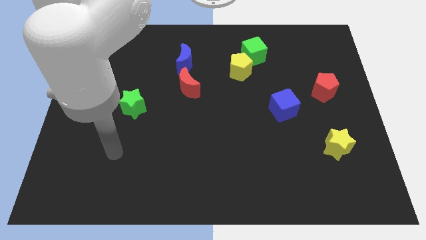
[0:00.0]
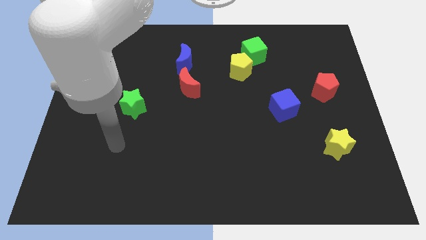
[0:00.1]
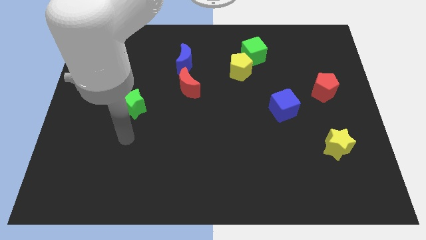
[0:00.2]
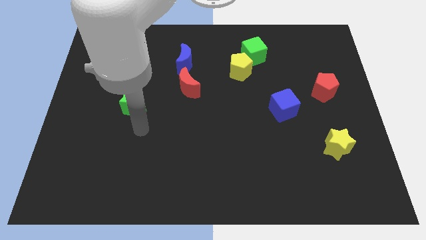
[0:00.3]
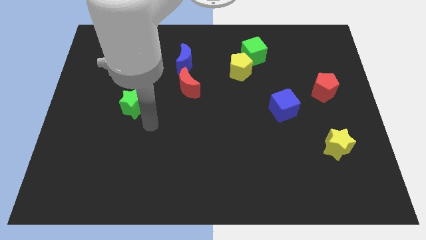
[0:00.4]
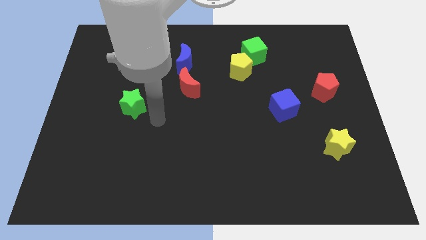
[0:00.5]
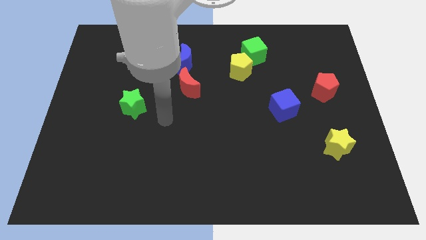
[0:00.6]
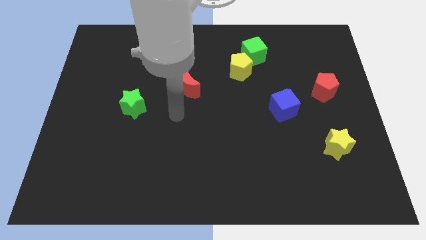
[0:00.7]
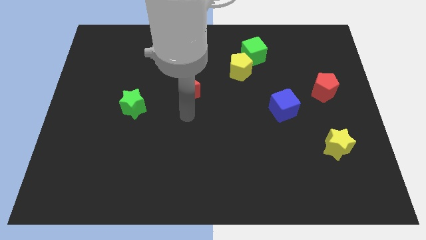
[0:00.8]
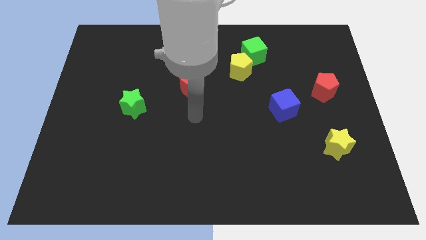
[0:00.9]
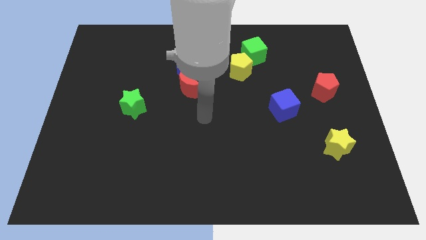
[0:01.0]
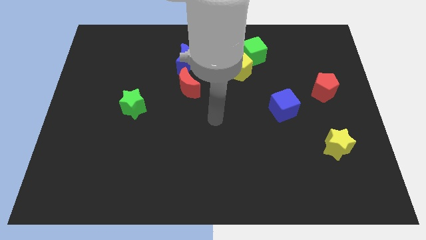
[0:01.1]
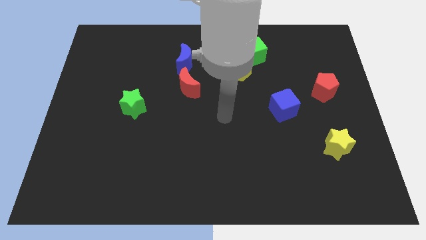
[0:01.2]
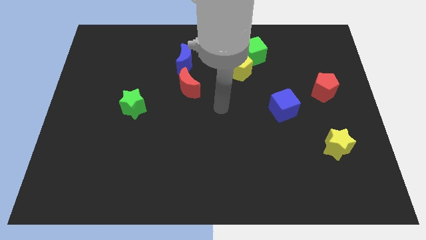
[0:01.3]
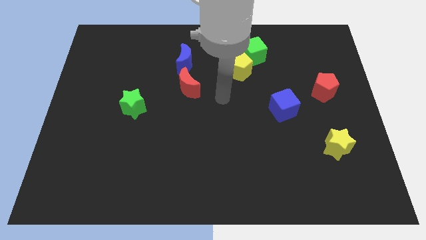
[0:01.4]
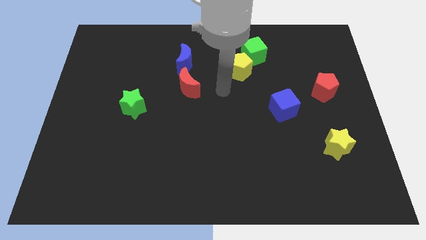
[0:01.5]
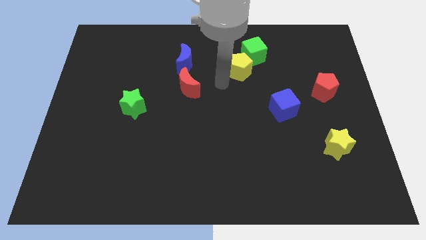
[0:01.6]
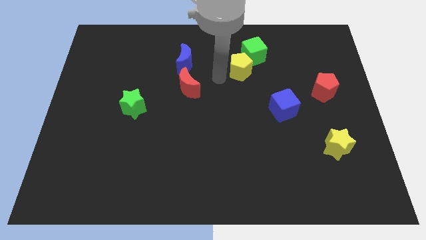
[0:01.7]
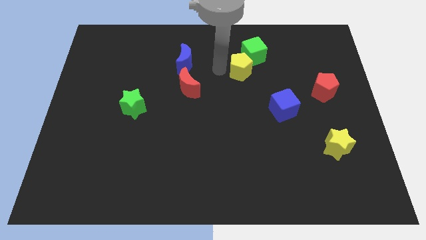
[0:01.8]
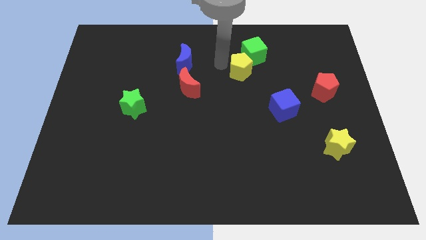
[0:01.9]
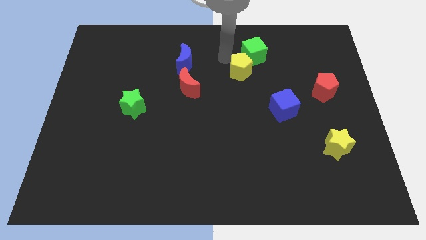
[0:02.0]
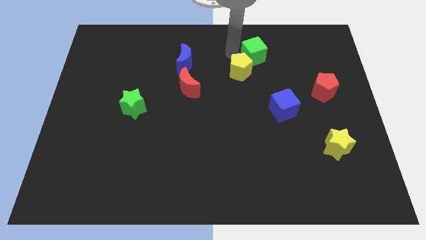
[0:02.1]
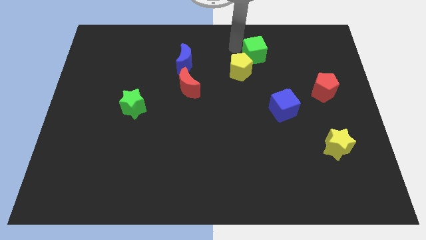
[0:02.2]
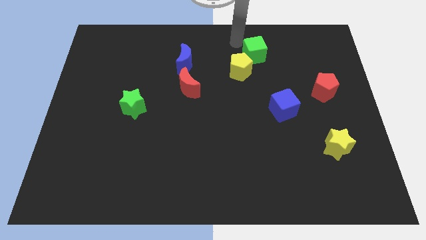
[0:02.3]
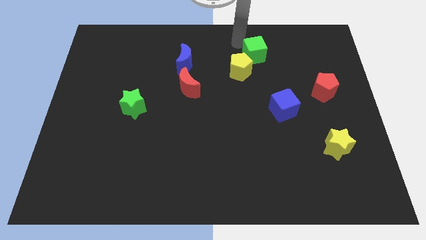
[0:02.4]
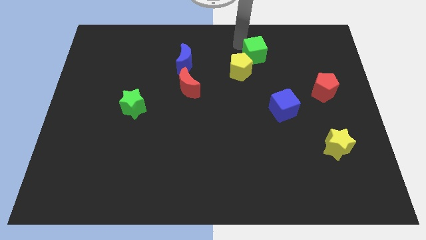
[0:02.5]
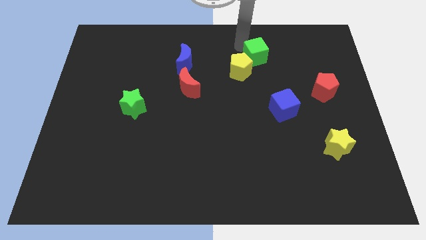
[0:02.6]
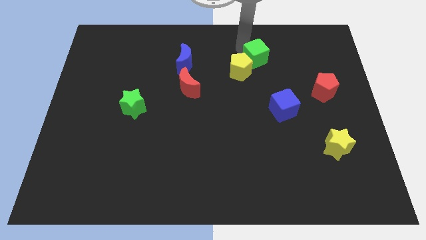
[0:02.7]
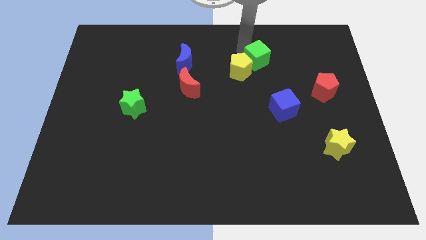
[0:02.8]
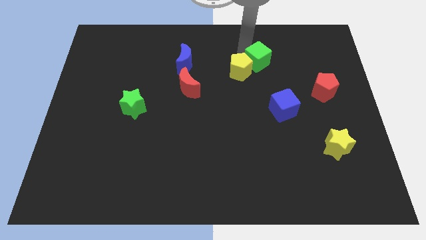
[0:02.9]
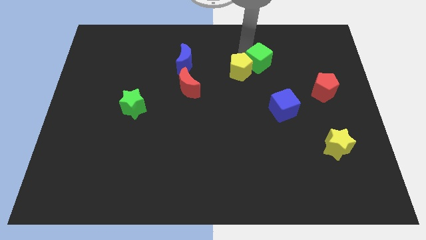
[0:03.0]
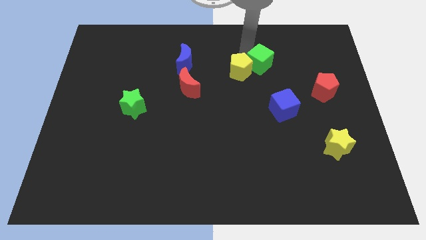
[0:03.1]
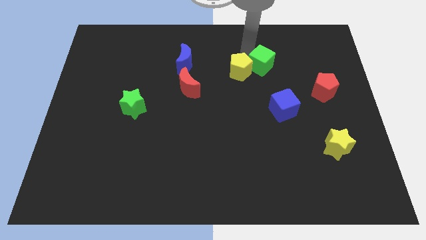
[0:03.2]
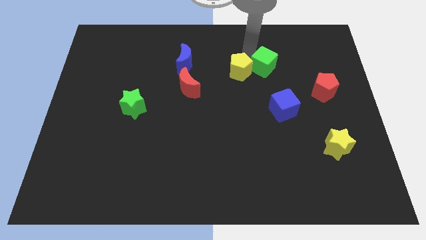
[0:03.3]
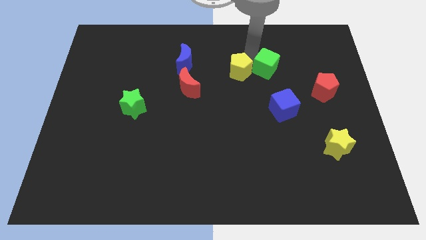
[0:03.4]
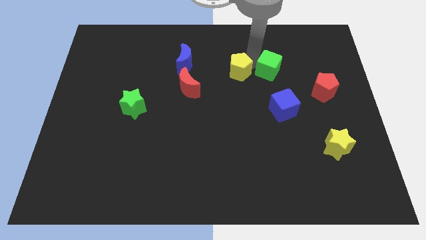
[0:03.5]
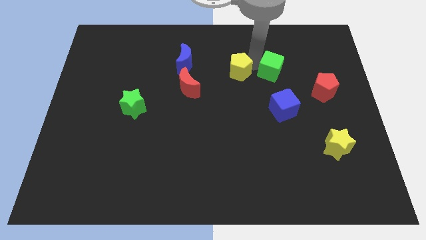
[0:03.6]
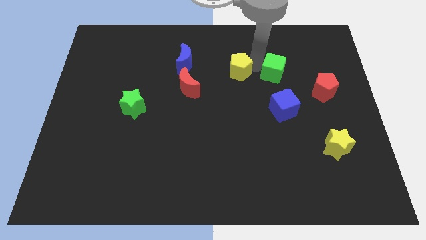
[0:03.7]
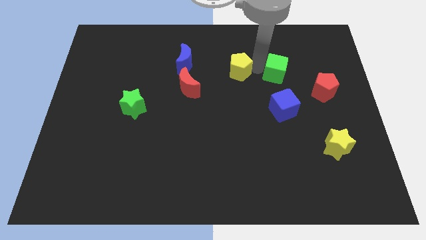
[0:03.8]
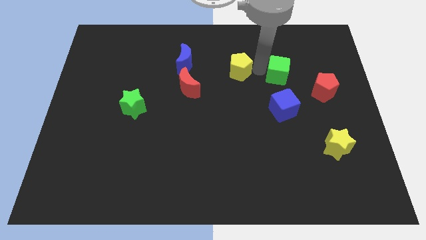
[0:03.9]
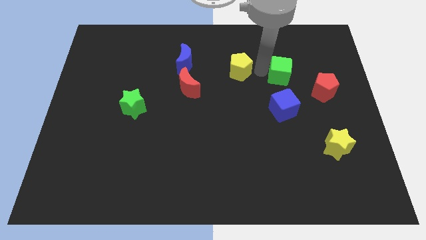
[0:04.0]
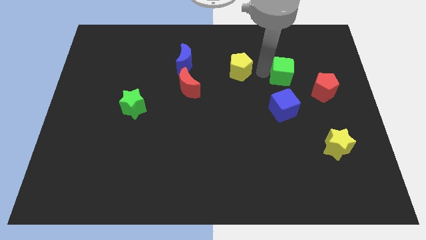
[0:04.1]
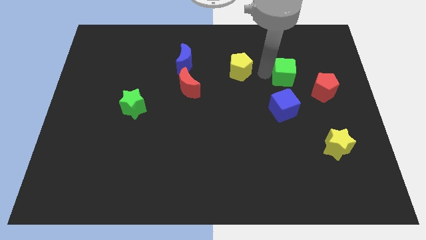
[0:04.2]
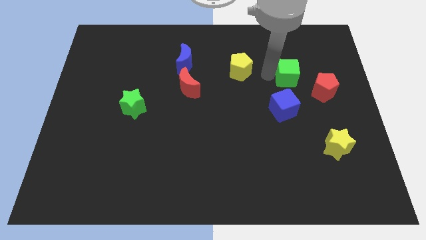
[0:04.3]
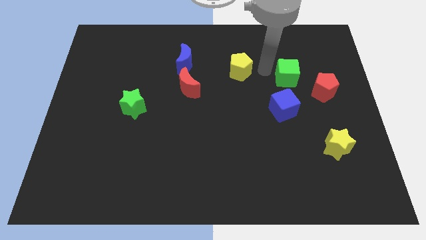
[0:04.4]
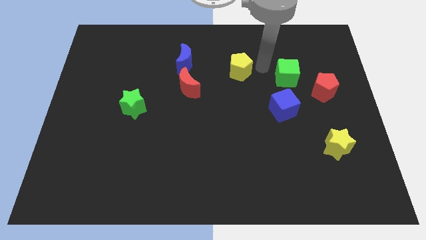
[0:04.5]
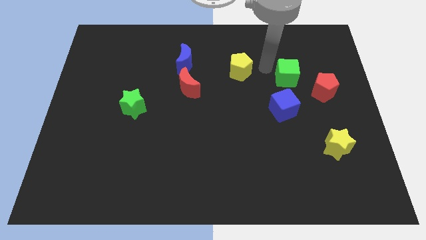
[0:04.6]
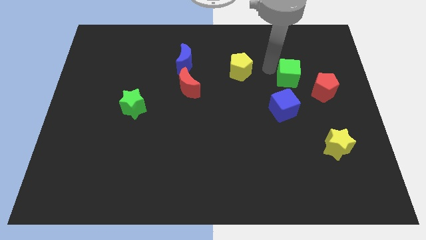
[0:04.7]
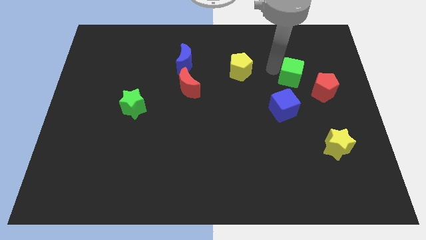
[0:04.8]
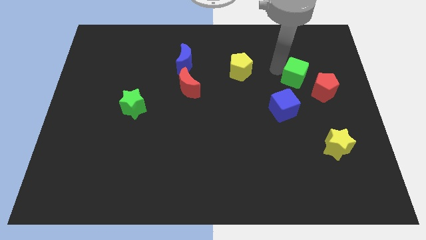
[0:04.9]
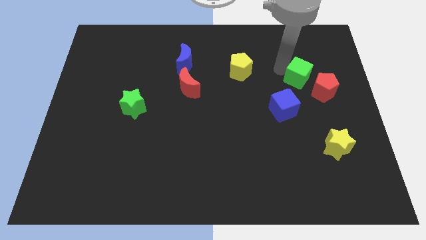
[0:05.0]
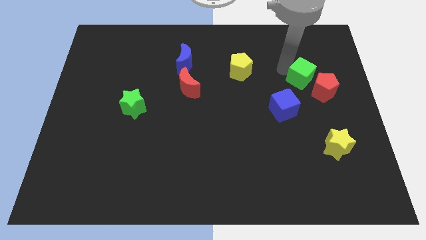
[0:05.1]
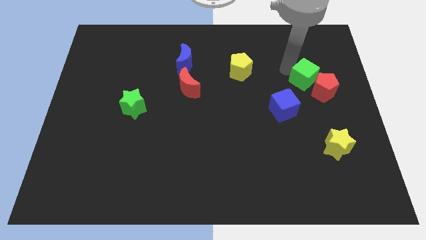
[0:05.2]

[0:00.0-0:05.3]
move the green cube close to the red pentagon

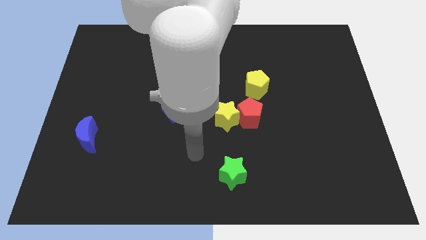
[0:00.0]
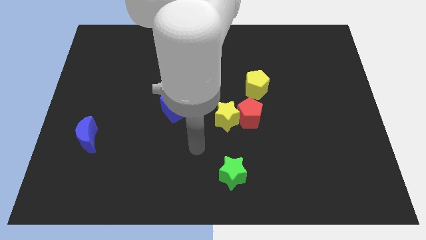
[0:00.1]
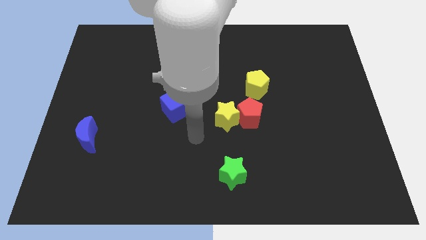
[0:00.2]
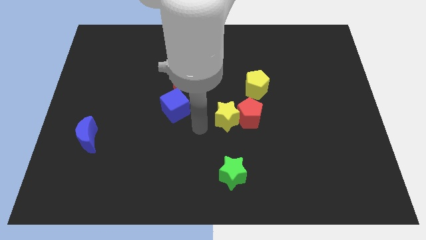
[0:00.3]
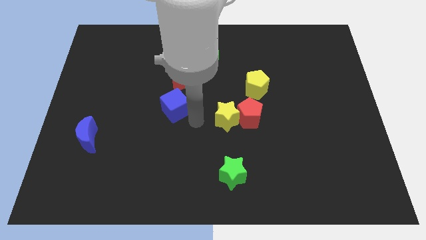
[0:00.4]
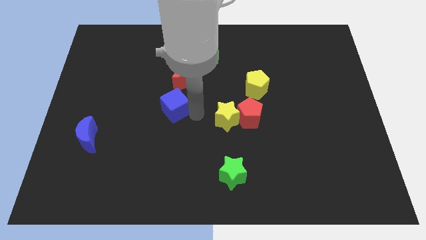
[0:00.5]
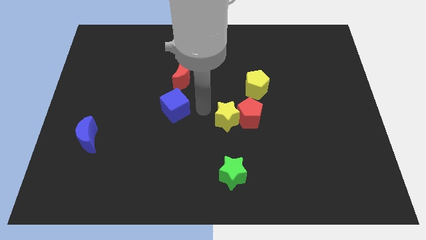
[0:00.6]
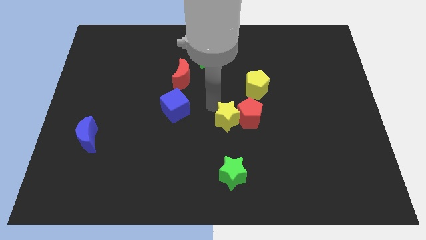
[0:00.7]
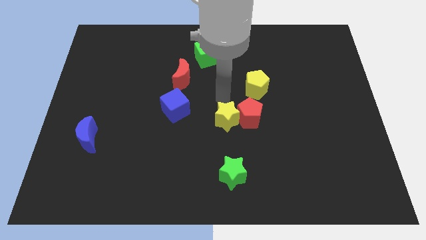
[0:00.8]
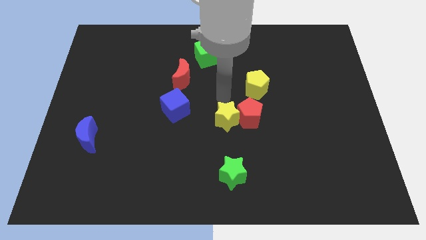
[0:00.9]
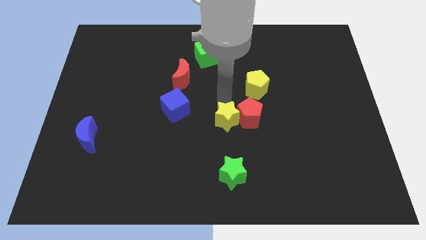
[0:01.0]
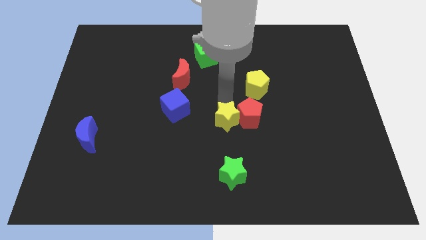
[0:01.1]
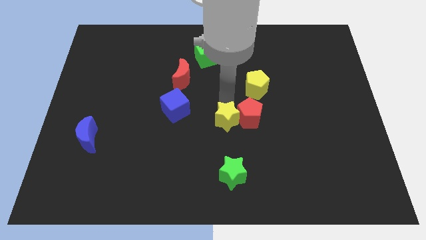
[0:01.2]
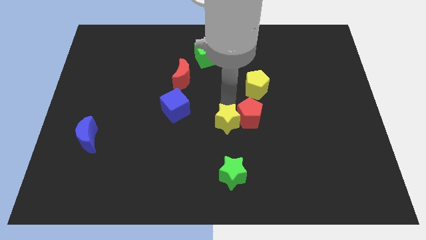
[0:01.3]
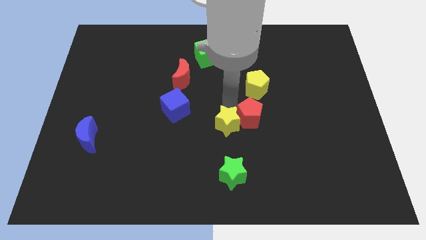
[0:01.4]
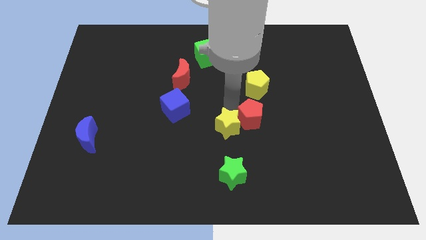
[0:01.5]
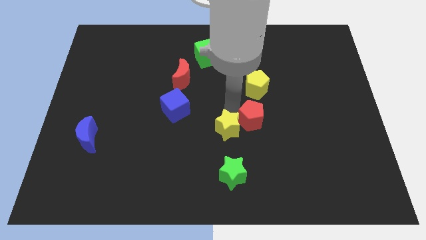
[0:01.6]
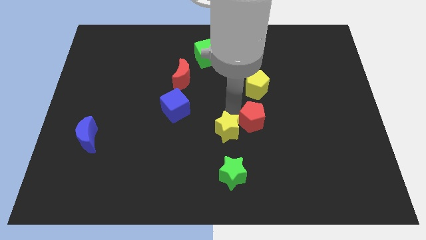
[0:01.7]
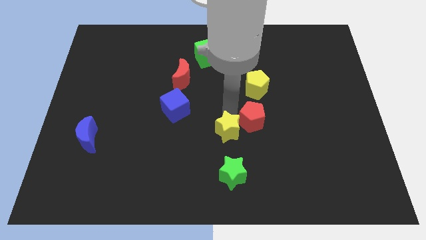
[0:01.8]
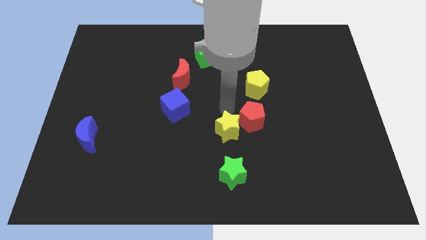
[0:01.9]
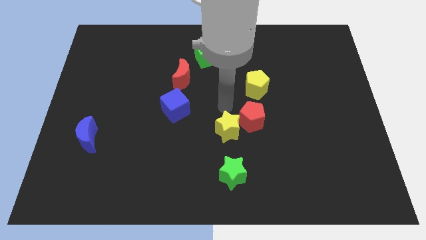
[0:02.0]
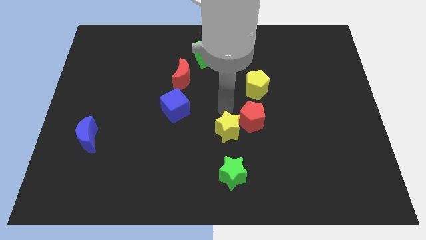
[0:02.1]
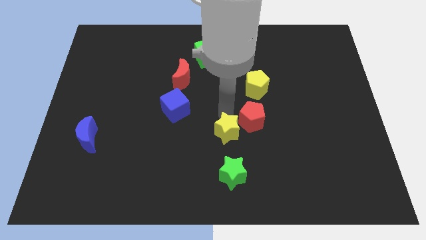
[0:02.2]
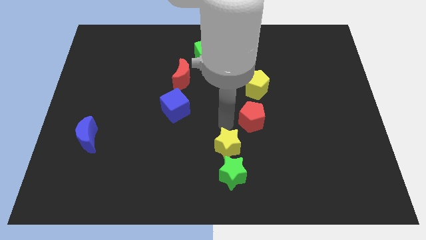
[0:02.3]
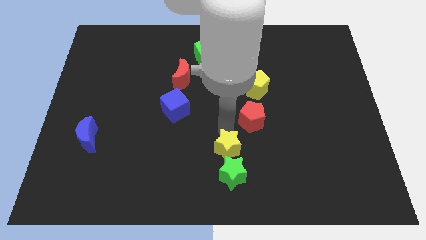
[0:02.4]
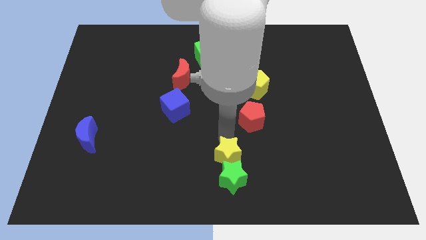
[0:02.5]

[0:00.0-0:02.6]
move the yellow star towards the green star
